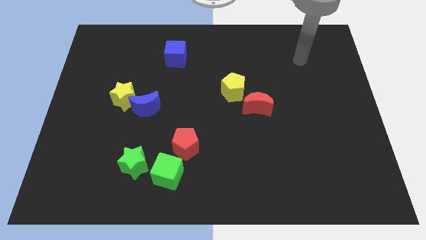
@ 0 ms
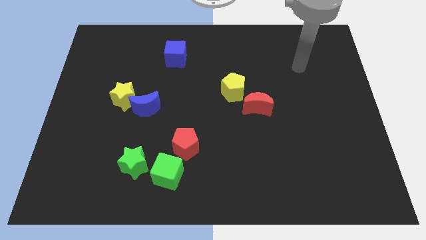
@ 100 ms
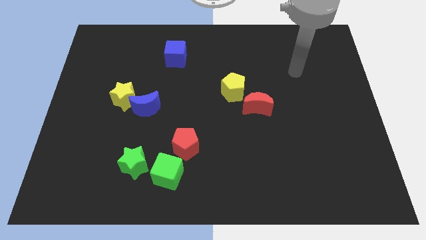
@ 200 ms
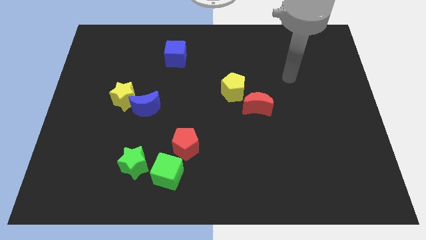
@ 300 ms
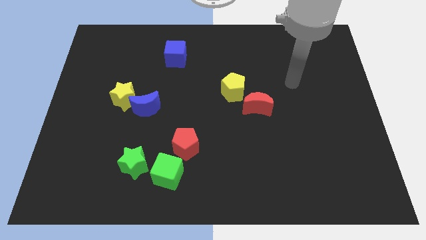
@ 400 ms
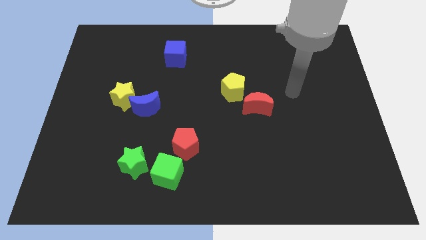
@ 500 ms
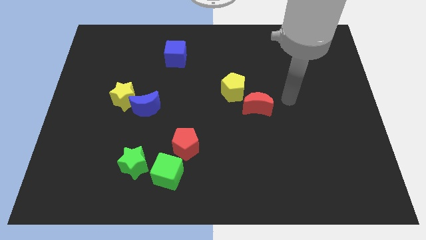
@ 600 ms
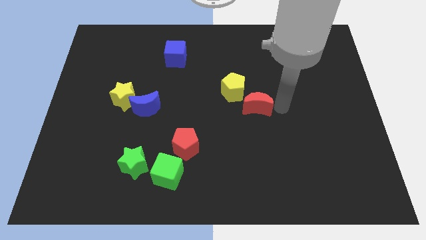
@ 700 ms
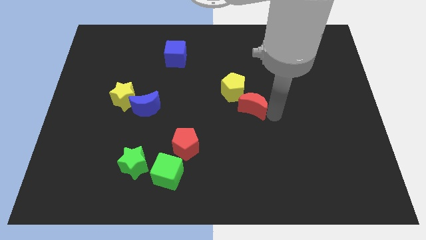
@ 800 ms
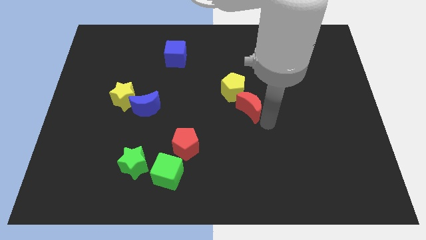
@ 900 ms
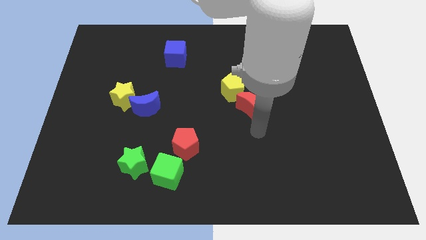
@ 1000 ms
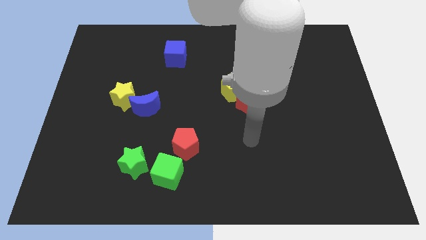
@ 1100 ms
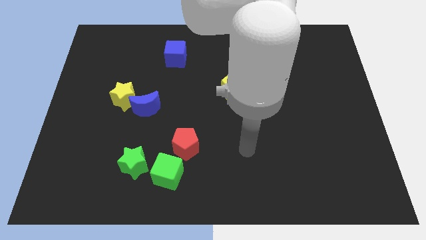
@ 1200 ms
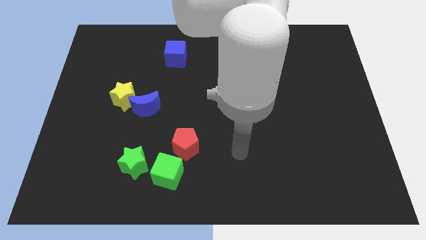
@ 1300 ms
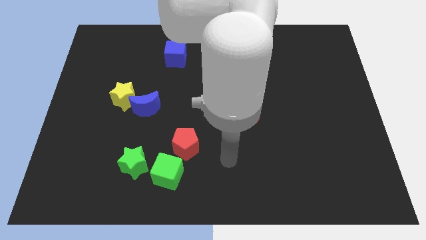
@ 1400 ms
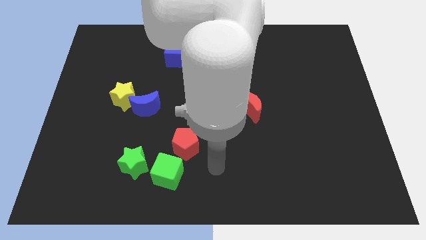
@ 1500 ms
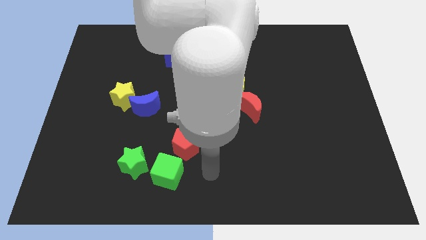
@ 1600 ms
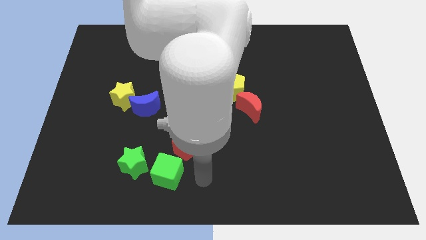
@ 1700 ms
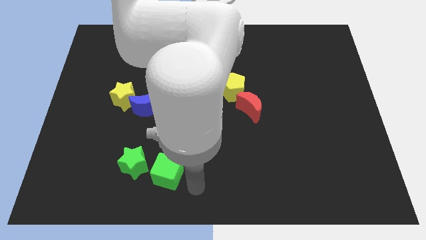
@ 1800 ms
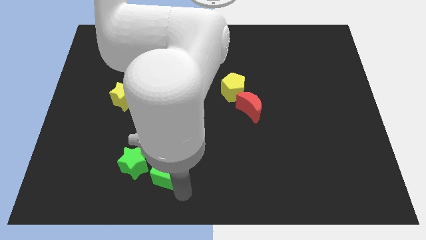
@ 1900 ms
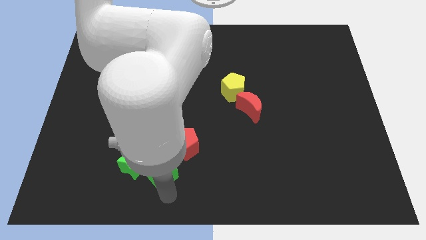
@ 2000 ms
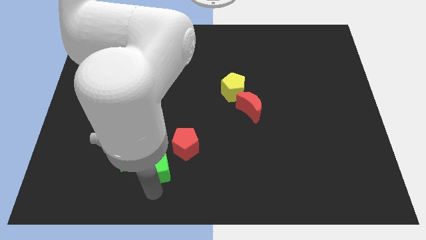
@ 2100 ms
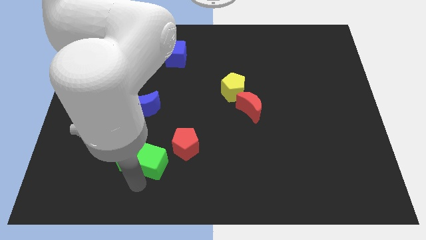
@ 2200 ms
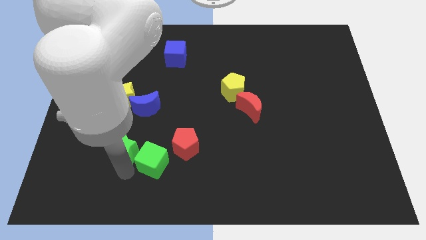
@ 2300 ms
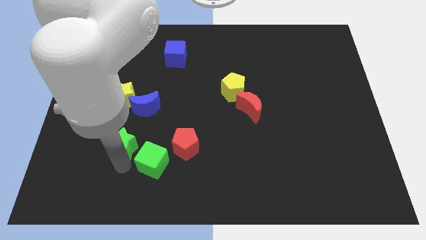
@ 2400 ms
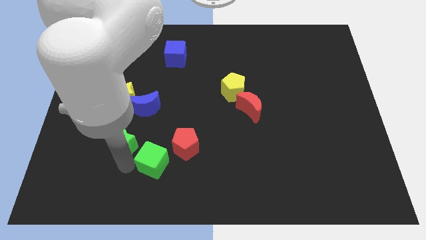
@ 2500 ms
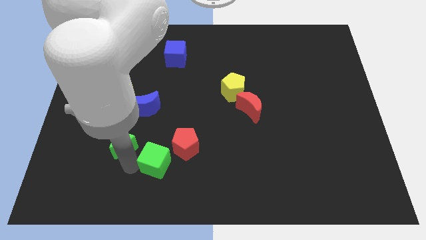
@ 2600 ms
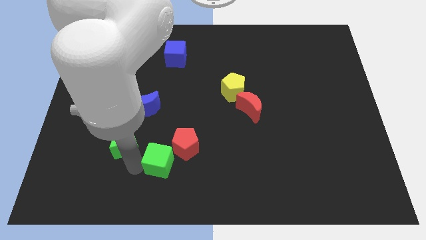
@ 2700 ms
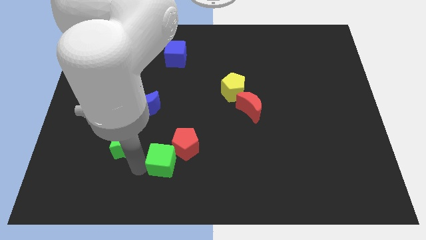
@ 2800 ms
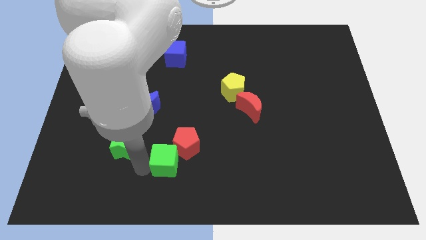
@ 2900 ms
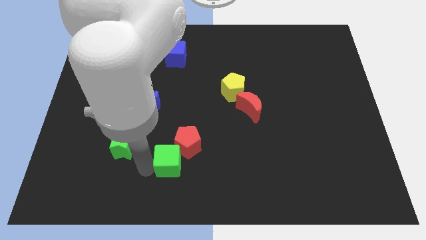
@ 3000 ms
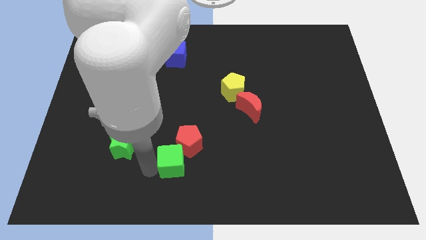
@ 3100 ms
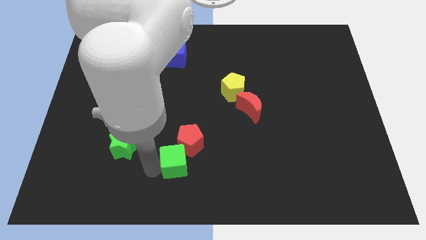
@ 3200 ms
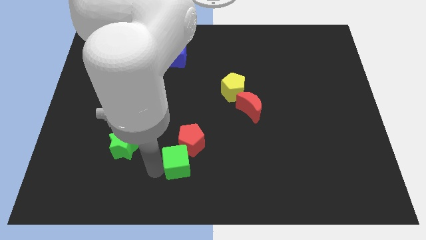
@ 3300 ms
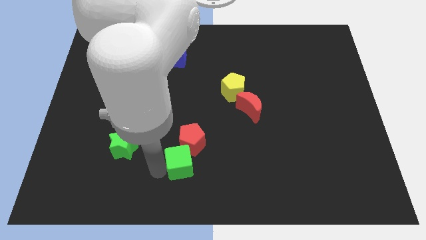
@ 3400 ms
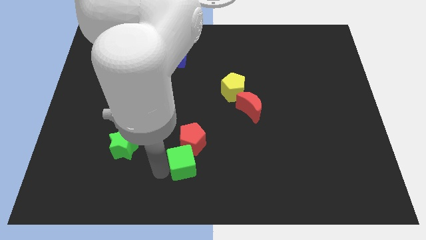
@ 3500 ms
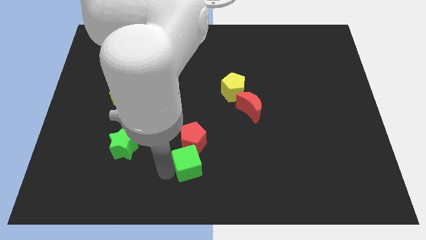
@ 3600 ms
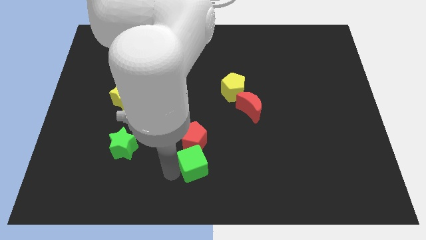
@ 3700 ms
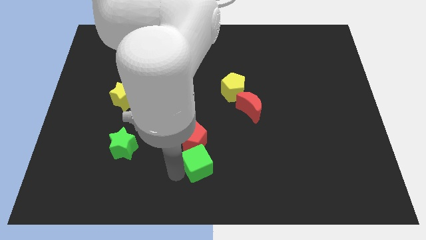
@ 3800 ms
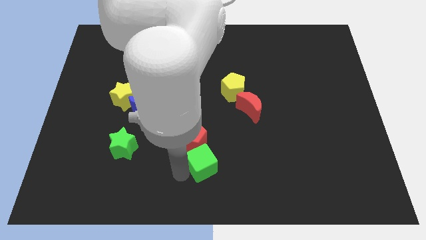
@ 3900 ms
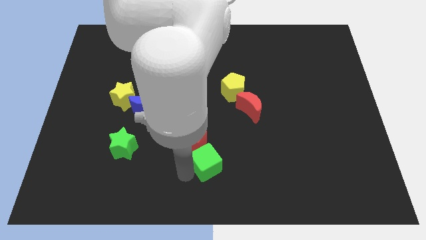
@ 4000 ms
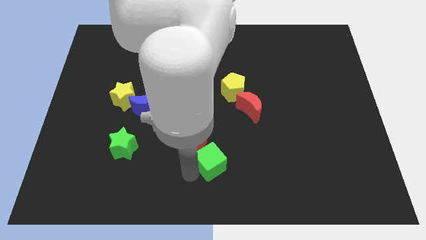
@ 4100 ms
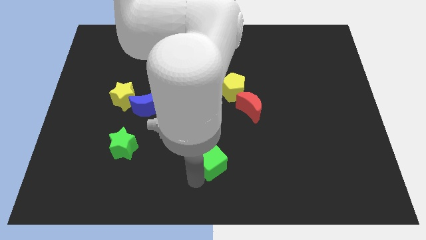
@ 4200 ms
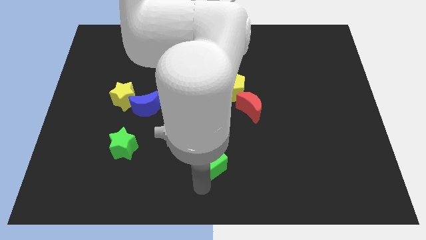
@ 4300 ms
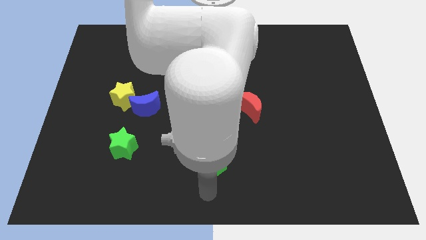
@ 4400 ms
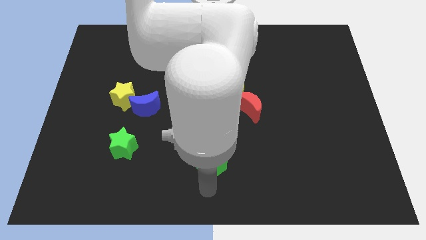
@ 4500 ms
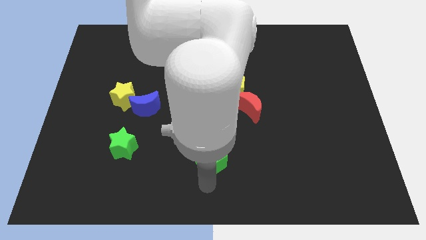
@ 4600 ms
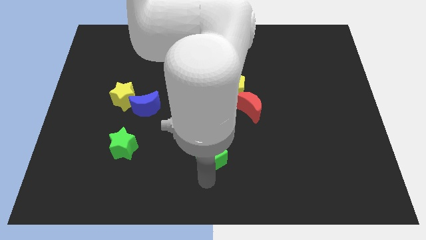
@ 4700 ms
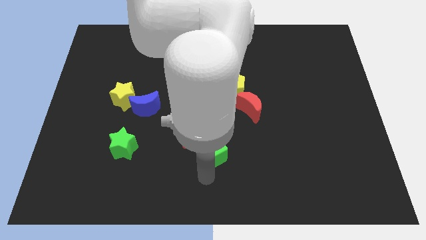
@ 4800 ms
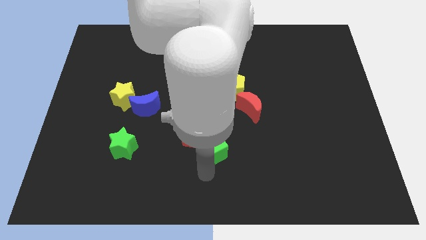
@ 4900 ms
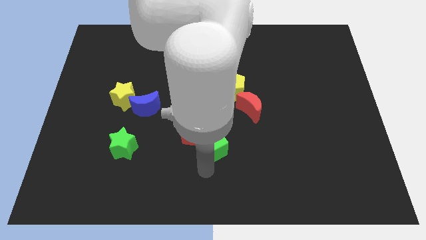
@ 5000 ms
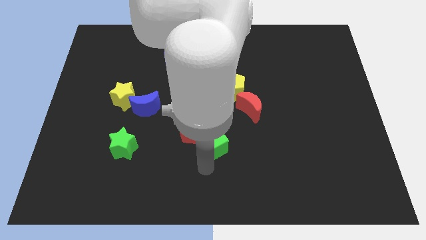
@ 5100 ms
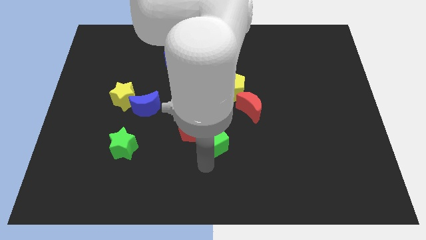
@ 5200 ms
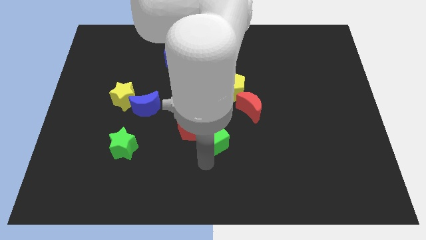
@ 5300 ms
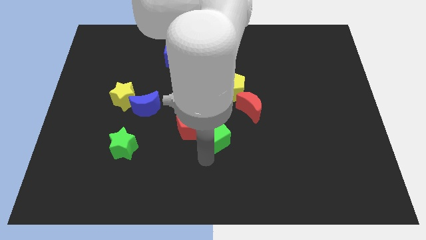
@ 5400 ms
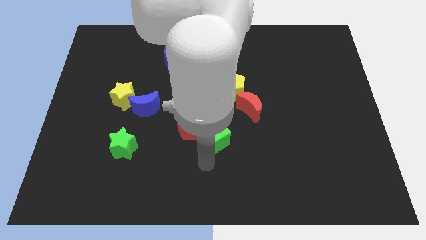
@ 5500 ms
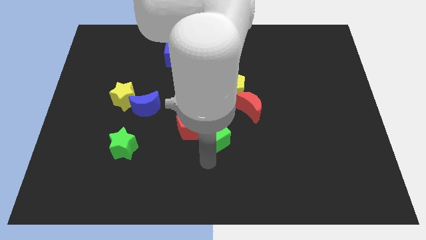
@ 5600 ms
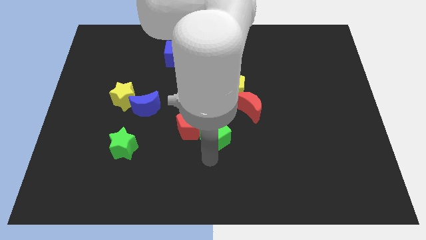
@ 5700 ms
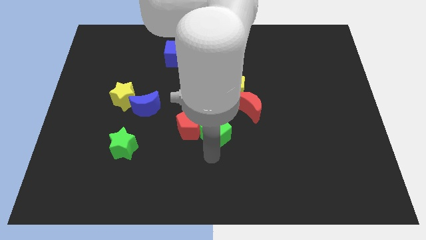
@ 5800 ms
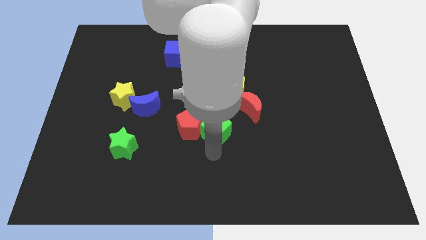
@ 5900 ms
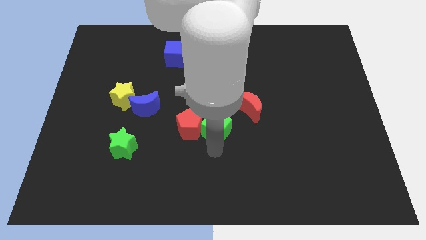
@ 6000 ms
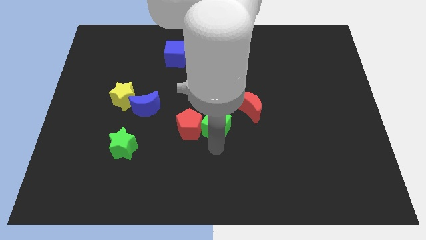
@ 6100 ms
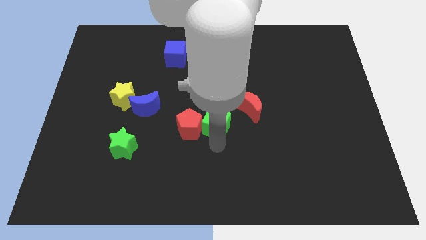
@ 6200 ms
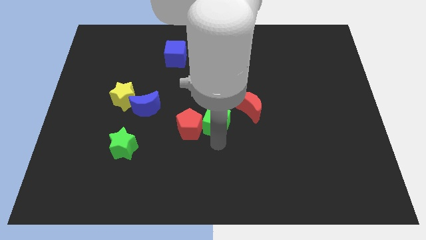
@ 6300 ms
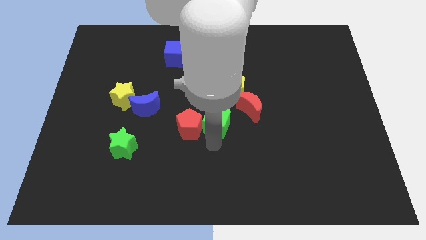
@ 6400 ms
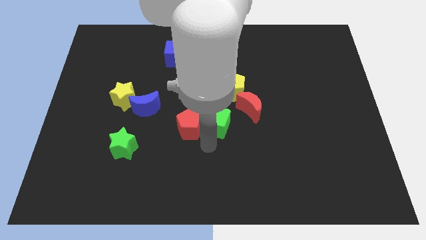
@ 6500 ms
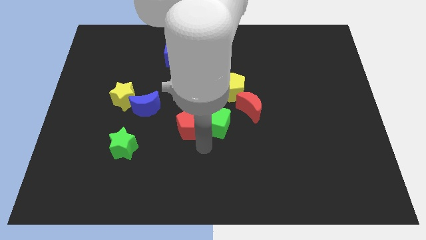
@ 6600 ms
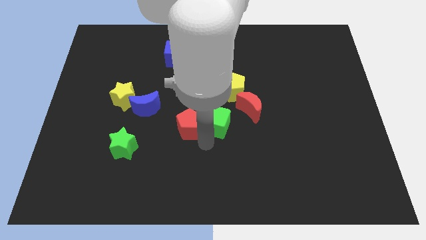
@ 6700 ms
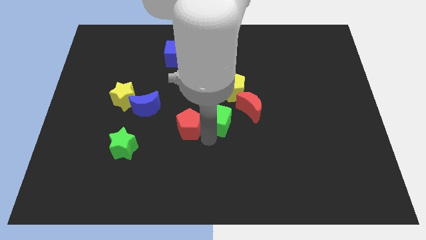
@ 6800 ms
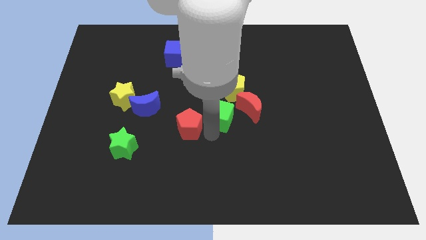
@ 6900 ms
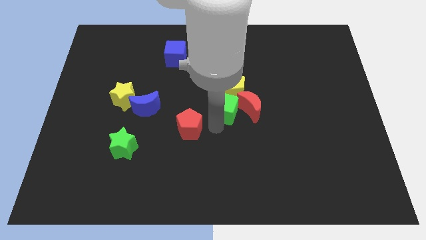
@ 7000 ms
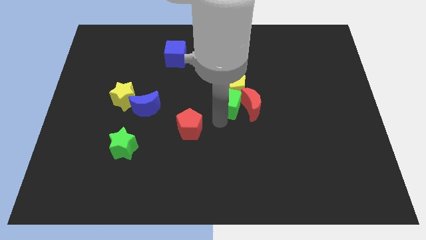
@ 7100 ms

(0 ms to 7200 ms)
slide the green cube next to the yellow pentagon
